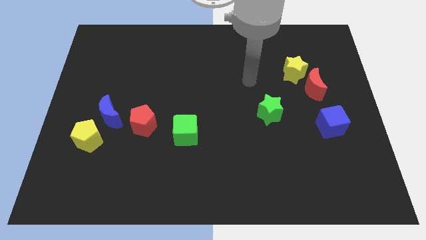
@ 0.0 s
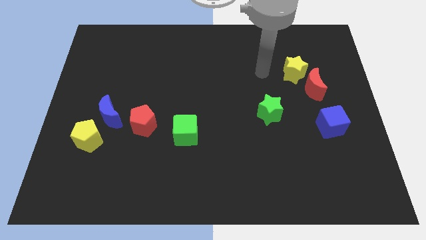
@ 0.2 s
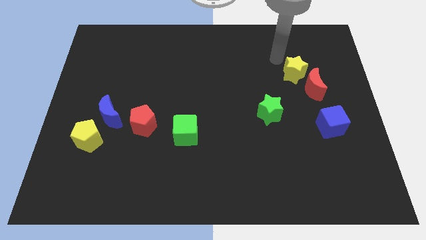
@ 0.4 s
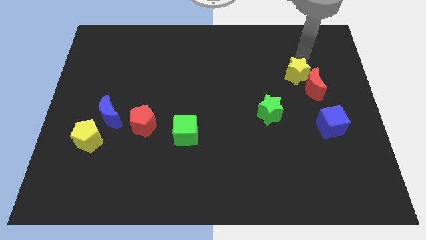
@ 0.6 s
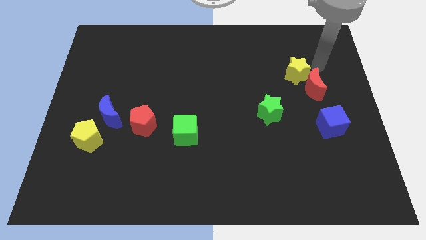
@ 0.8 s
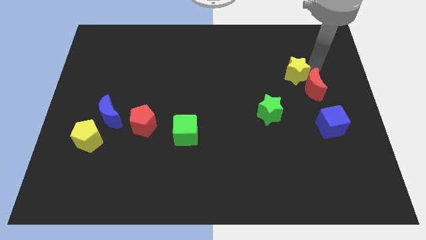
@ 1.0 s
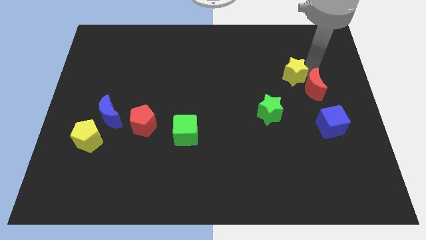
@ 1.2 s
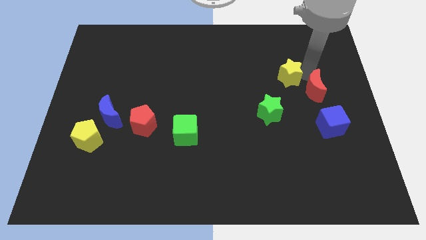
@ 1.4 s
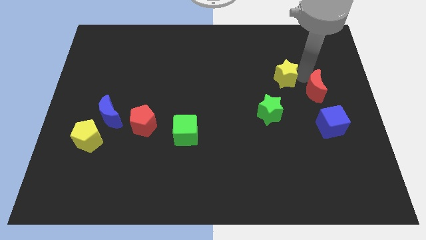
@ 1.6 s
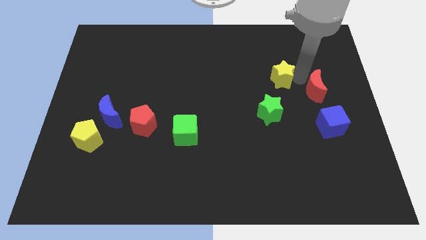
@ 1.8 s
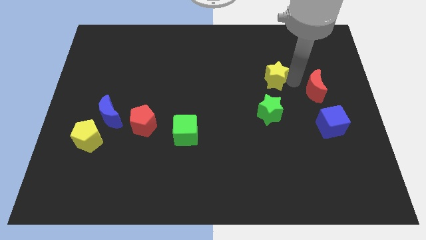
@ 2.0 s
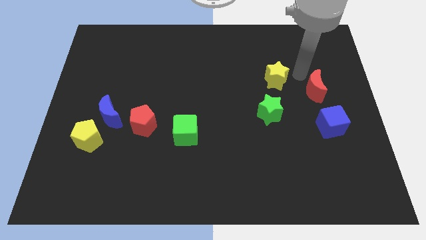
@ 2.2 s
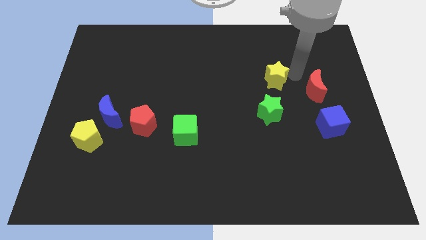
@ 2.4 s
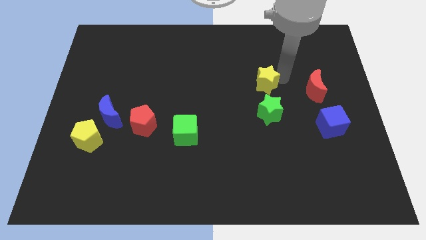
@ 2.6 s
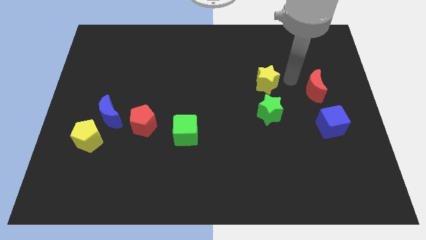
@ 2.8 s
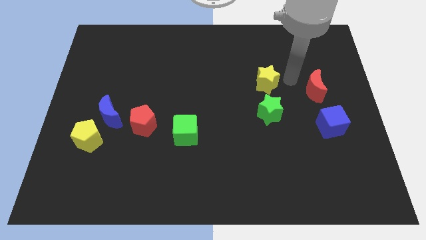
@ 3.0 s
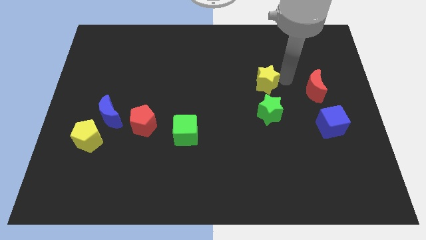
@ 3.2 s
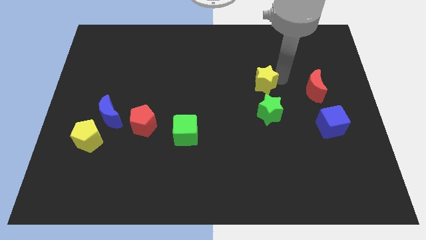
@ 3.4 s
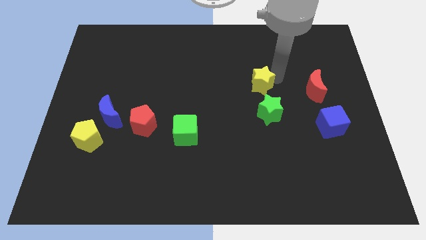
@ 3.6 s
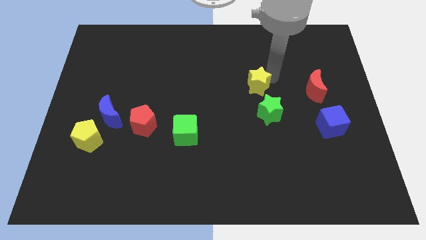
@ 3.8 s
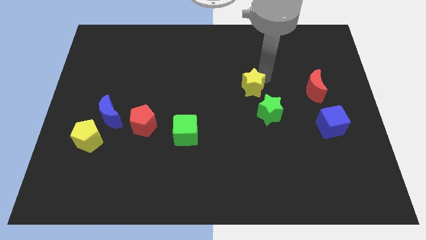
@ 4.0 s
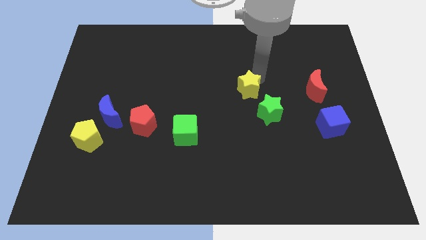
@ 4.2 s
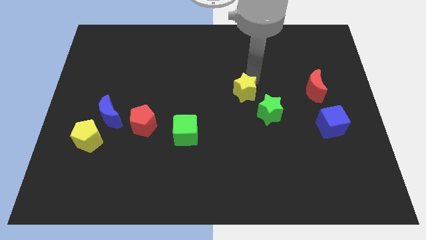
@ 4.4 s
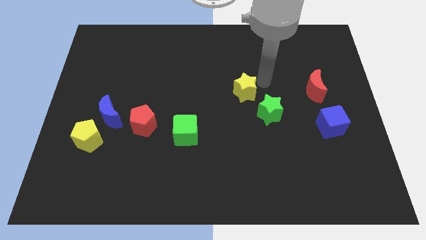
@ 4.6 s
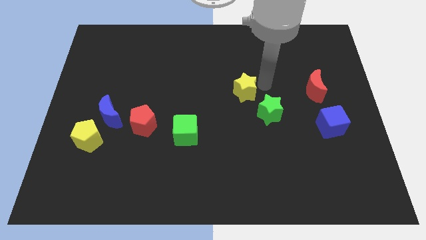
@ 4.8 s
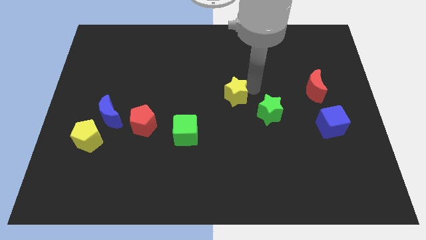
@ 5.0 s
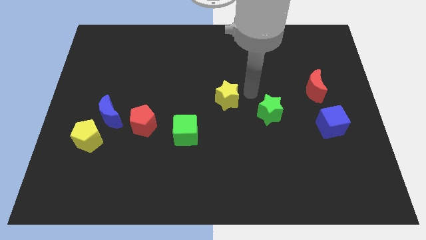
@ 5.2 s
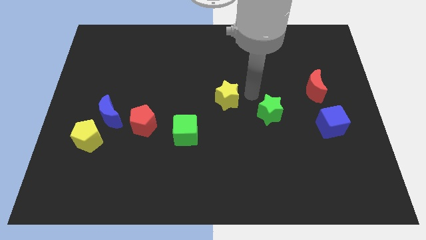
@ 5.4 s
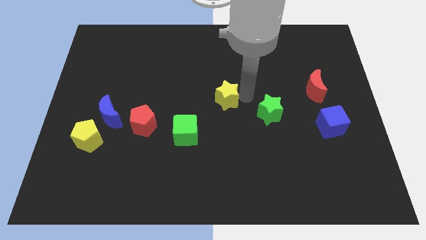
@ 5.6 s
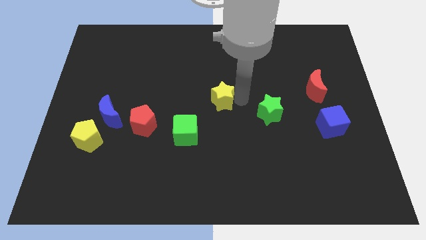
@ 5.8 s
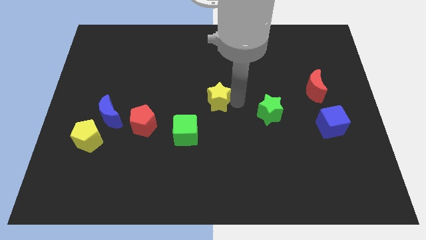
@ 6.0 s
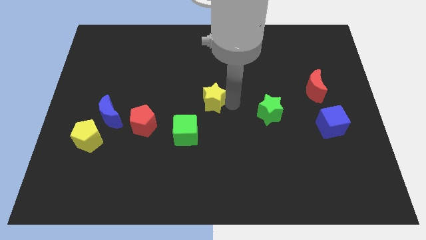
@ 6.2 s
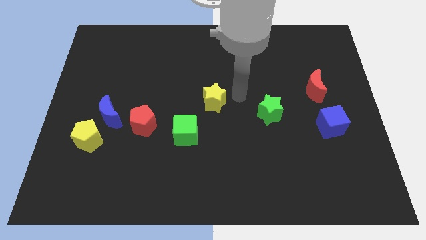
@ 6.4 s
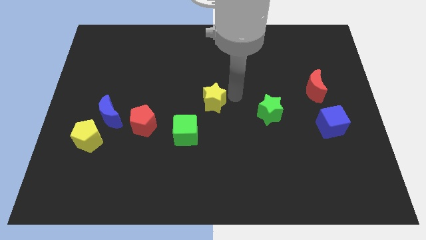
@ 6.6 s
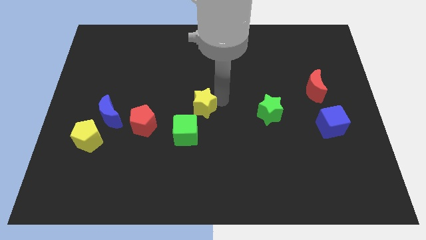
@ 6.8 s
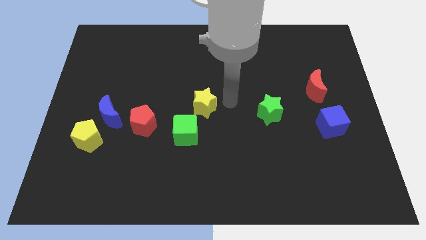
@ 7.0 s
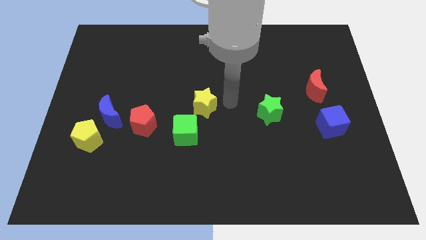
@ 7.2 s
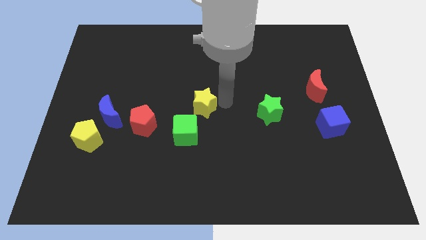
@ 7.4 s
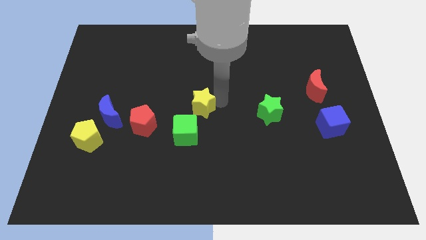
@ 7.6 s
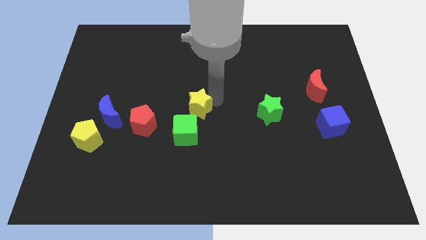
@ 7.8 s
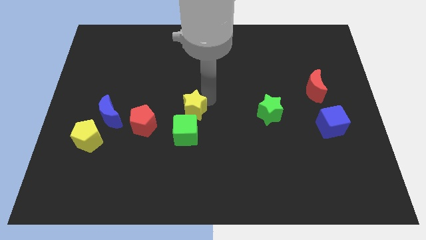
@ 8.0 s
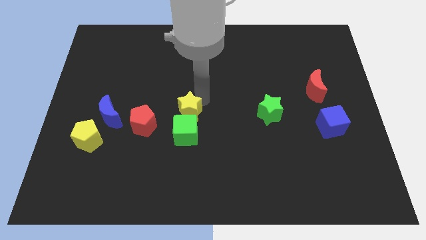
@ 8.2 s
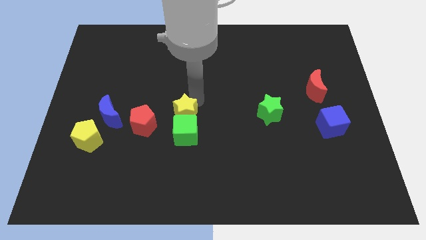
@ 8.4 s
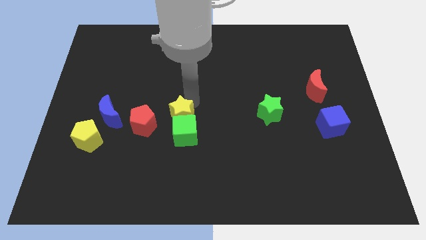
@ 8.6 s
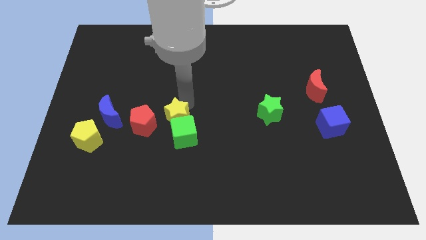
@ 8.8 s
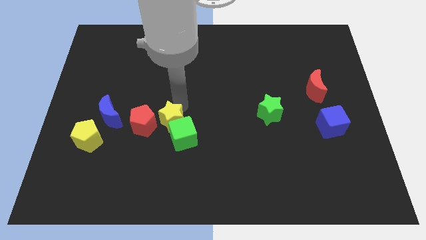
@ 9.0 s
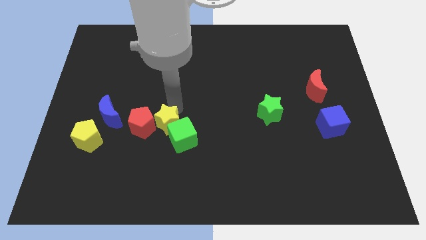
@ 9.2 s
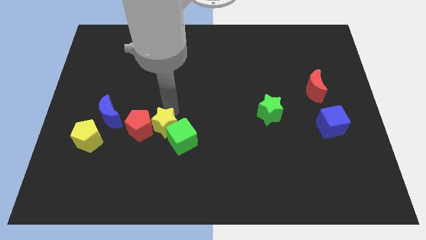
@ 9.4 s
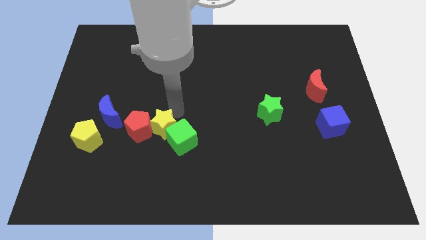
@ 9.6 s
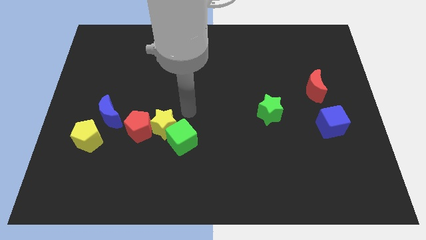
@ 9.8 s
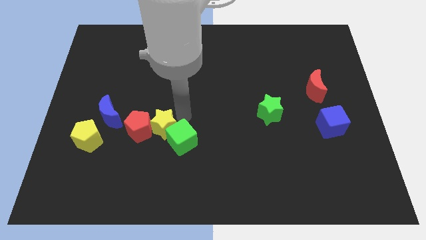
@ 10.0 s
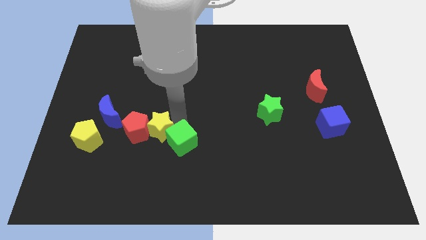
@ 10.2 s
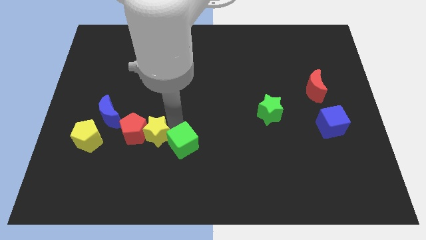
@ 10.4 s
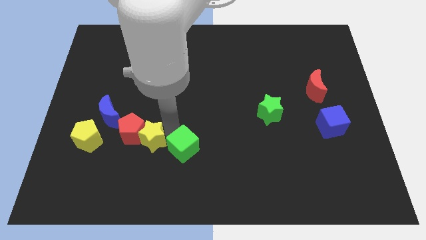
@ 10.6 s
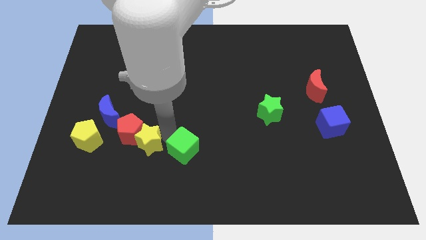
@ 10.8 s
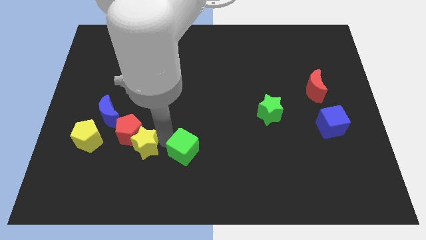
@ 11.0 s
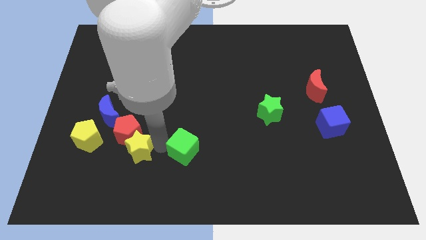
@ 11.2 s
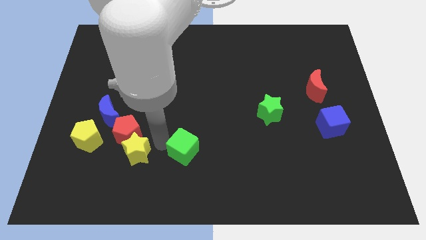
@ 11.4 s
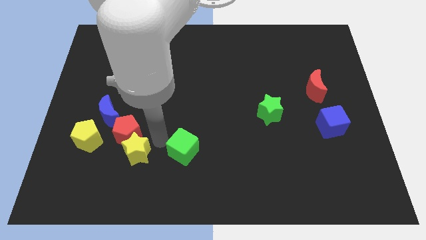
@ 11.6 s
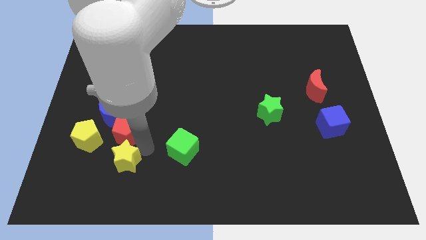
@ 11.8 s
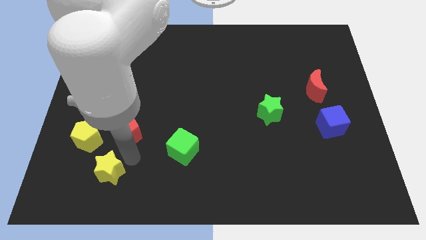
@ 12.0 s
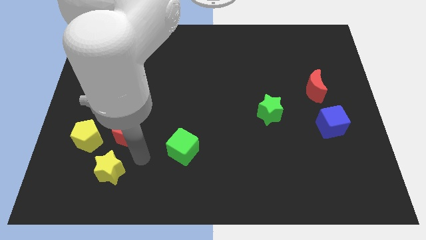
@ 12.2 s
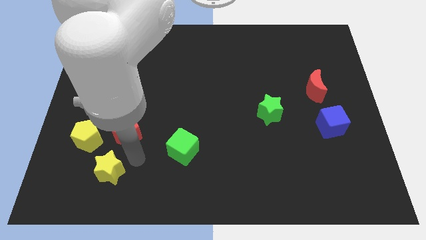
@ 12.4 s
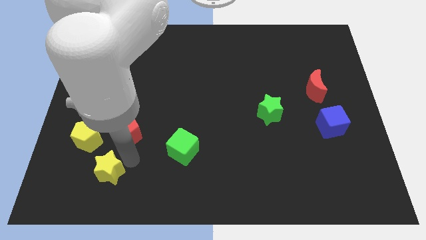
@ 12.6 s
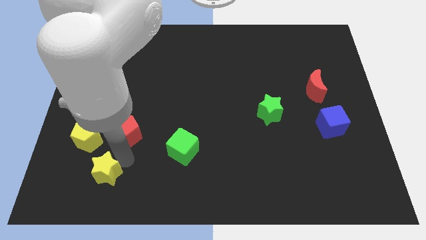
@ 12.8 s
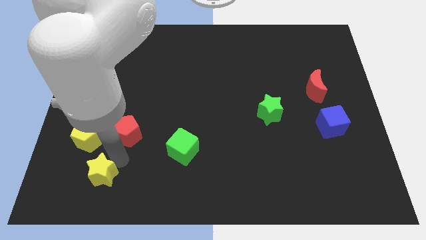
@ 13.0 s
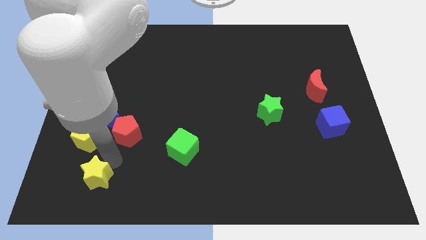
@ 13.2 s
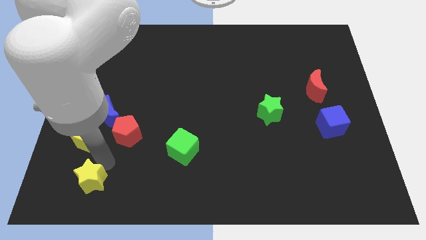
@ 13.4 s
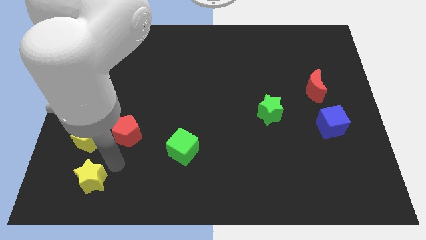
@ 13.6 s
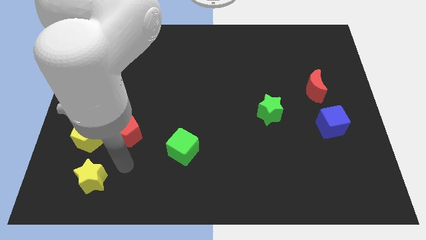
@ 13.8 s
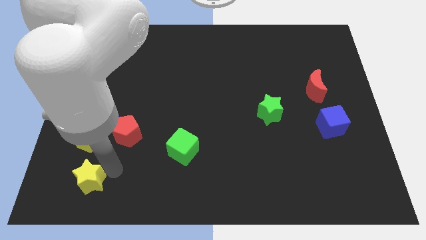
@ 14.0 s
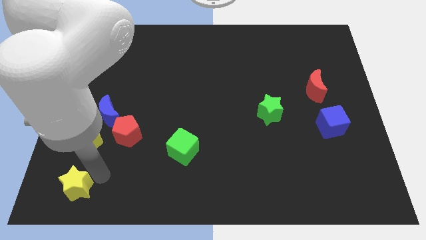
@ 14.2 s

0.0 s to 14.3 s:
slide the yellow star to the lower left corner
